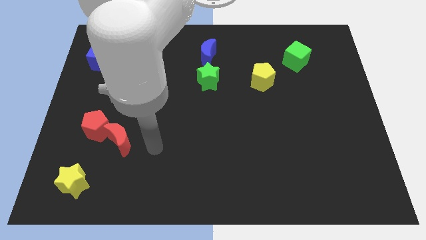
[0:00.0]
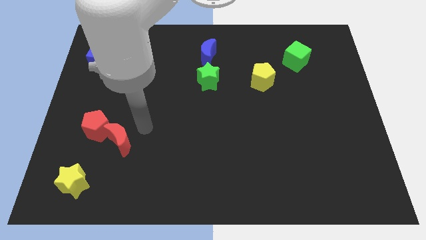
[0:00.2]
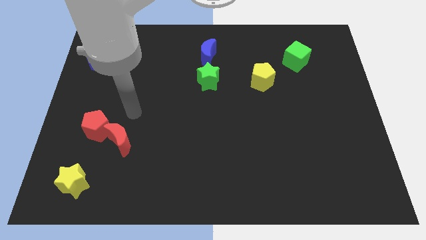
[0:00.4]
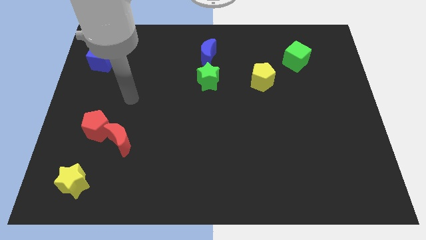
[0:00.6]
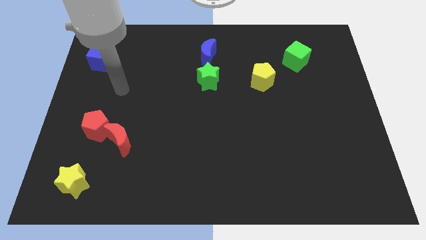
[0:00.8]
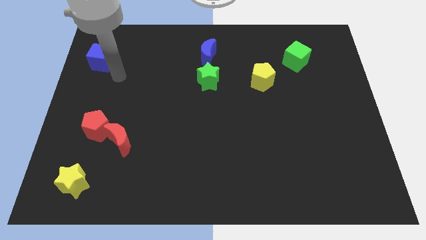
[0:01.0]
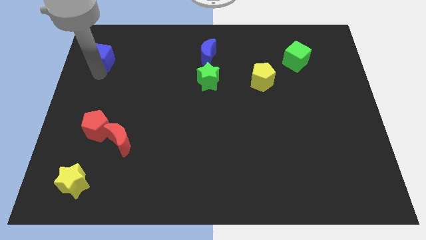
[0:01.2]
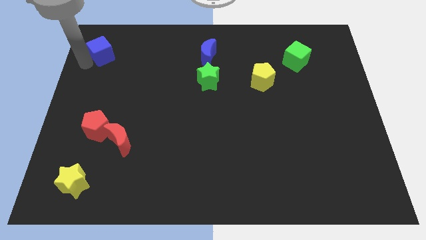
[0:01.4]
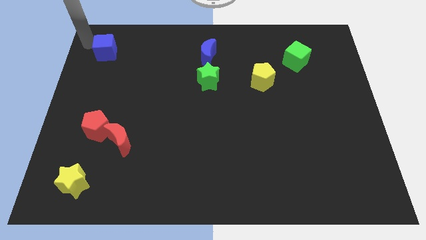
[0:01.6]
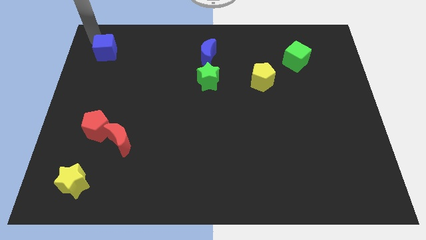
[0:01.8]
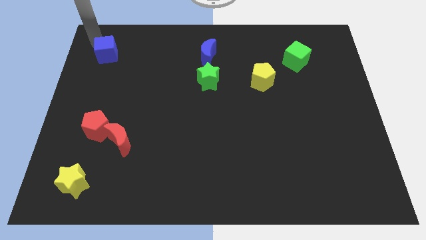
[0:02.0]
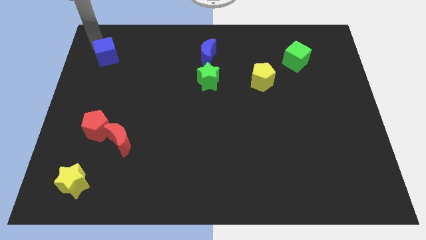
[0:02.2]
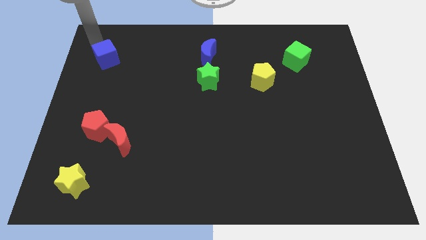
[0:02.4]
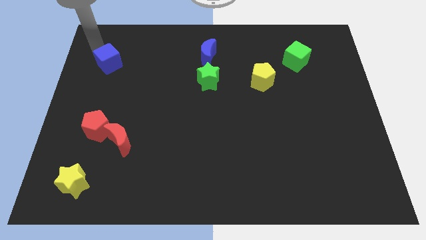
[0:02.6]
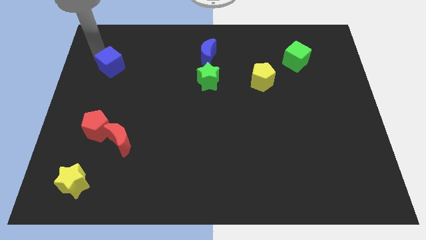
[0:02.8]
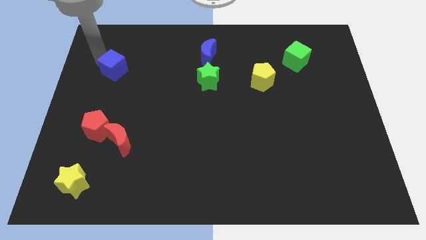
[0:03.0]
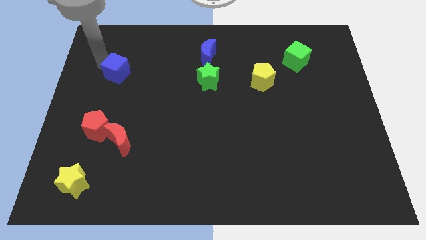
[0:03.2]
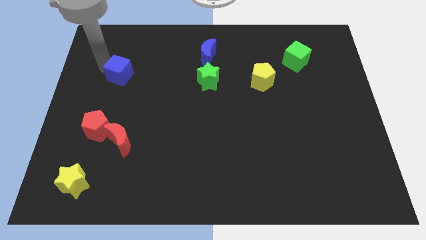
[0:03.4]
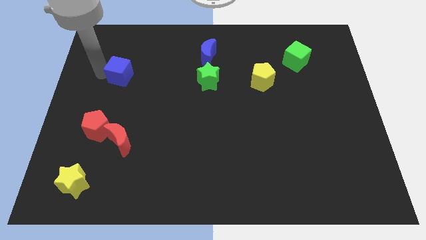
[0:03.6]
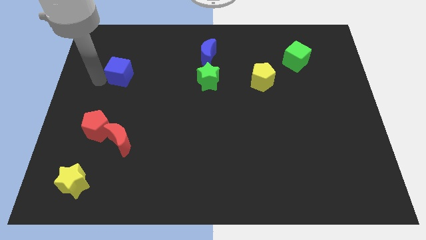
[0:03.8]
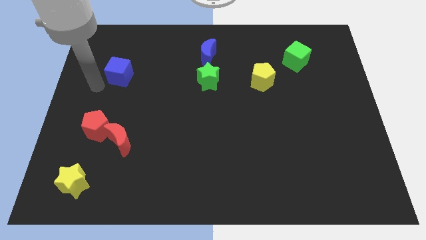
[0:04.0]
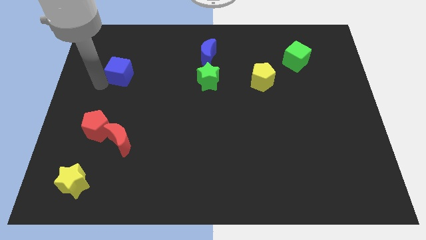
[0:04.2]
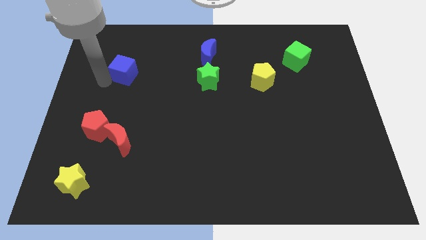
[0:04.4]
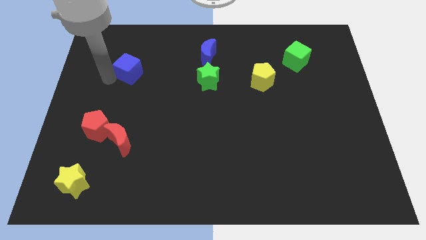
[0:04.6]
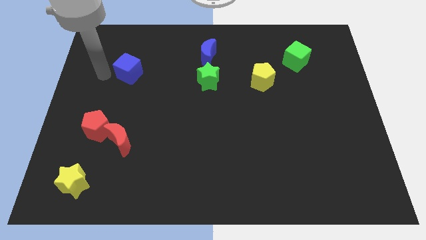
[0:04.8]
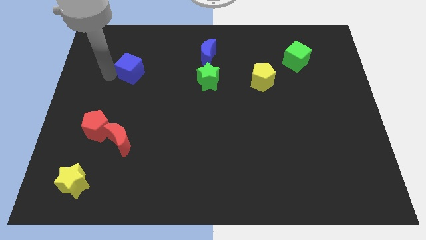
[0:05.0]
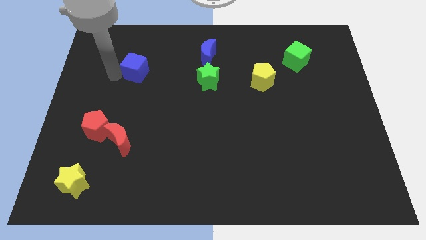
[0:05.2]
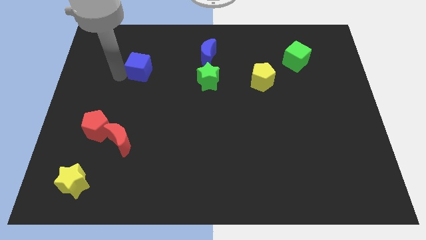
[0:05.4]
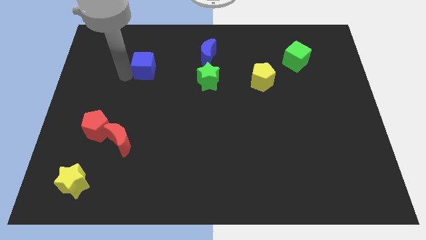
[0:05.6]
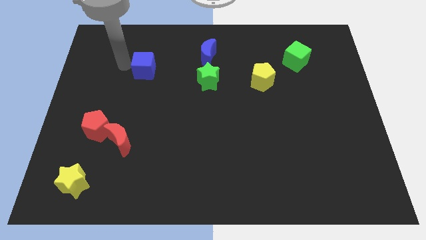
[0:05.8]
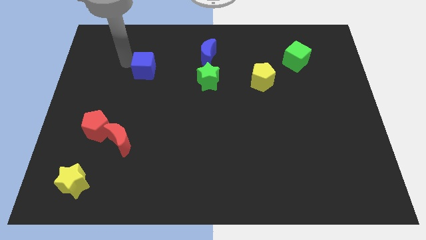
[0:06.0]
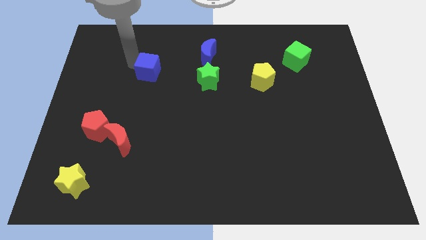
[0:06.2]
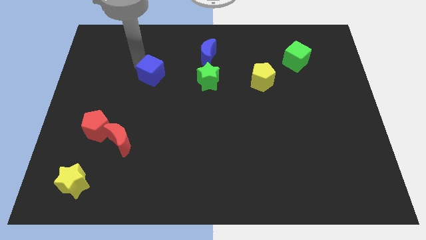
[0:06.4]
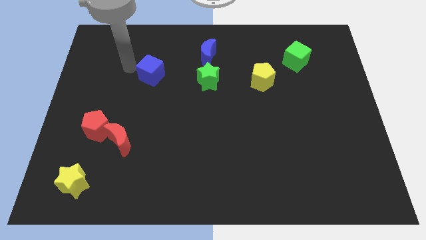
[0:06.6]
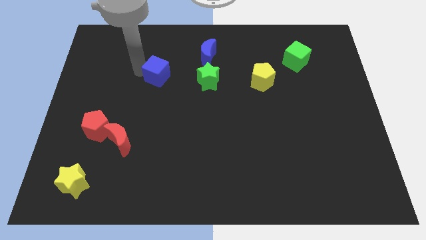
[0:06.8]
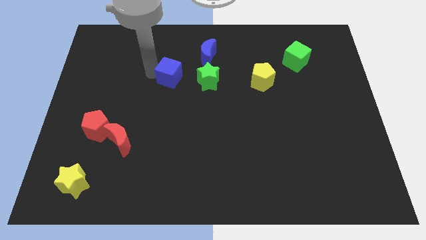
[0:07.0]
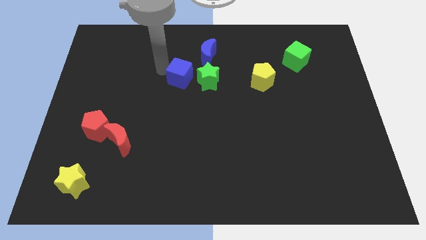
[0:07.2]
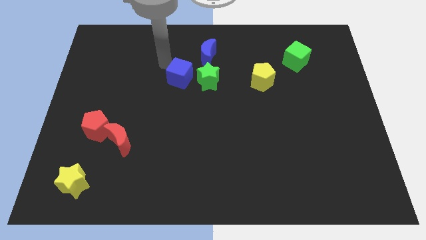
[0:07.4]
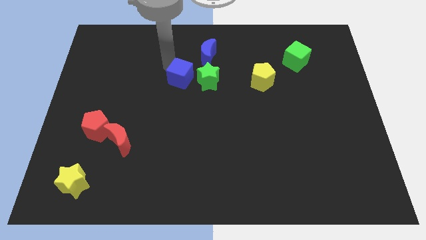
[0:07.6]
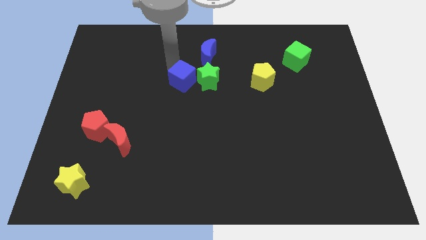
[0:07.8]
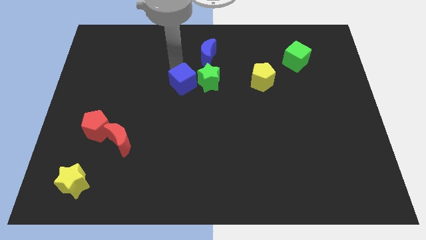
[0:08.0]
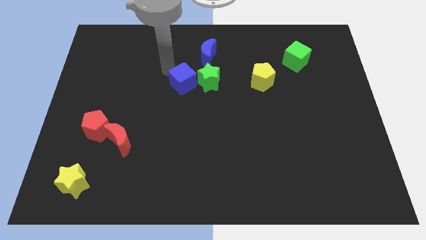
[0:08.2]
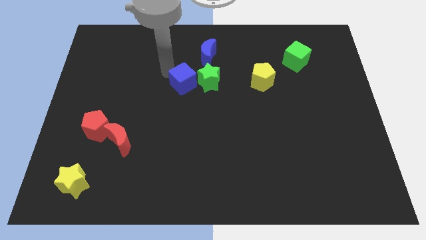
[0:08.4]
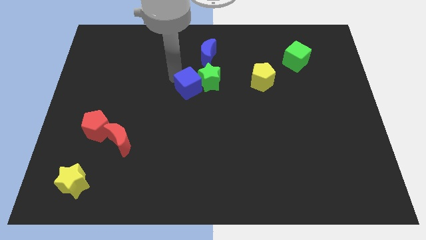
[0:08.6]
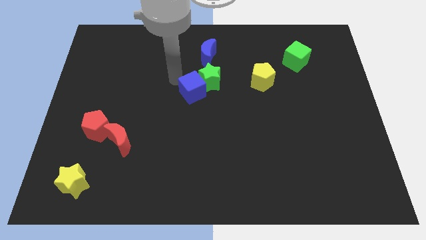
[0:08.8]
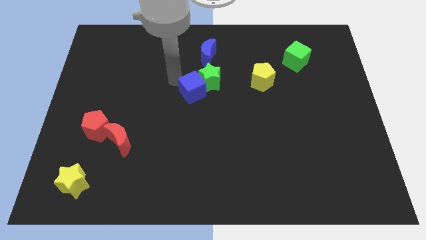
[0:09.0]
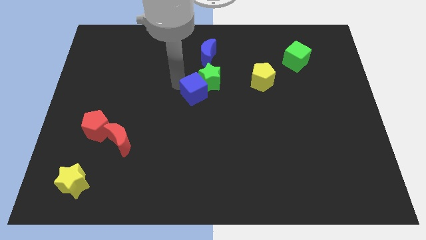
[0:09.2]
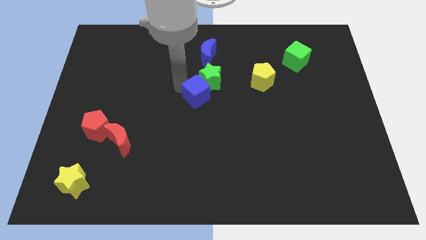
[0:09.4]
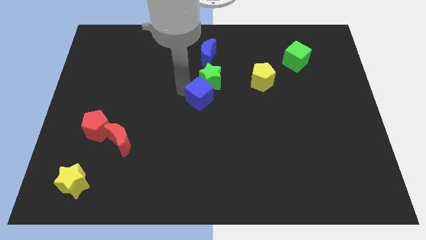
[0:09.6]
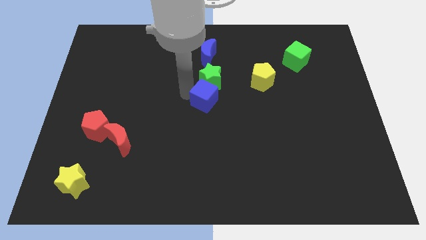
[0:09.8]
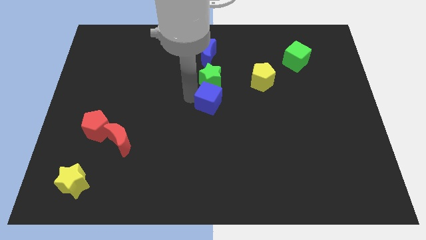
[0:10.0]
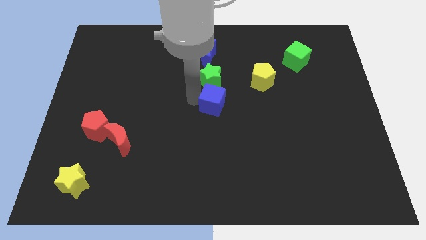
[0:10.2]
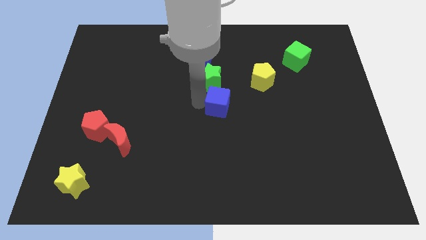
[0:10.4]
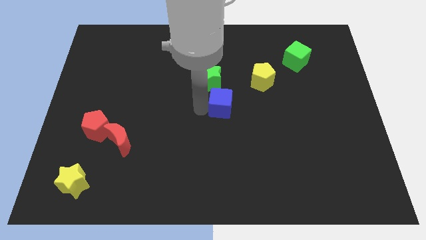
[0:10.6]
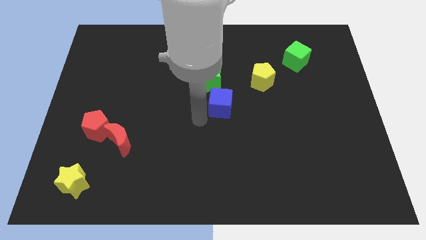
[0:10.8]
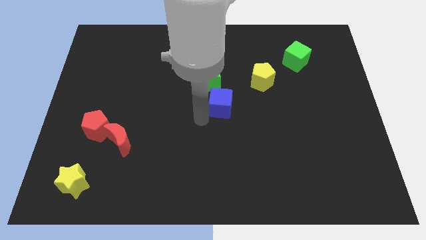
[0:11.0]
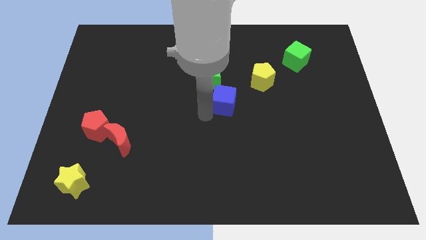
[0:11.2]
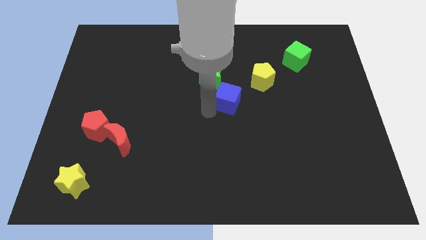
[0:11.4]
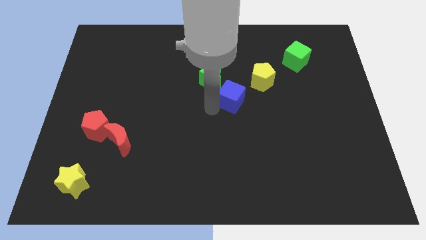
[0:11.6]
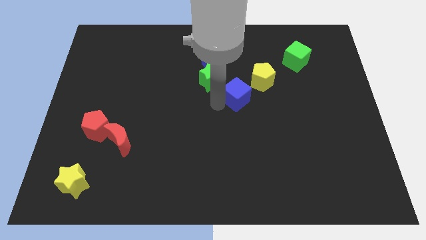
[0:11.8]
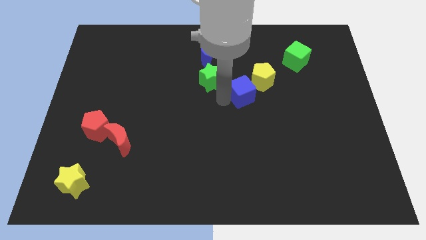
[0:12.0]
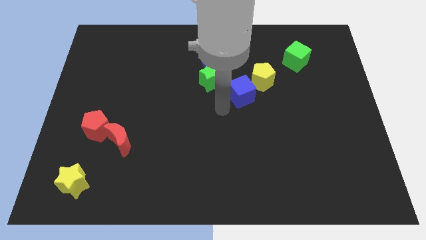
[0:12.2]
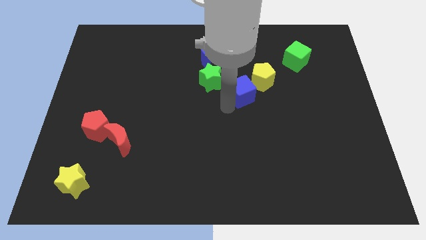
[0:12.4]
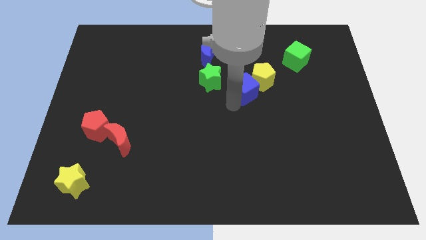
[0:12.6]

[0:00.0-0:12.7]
slide the blue cube close to the yellow pentagon

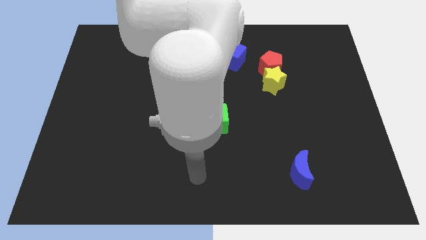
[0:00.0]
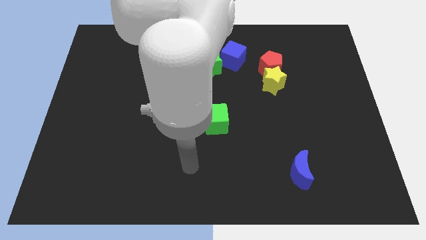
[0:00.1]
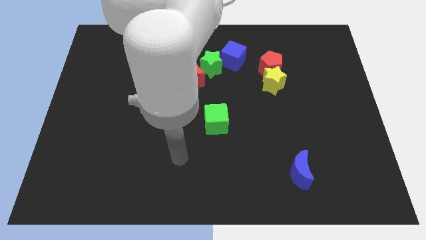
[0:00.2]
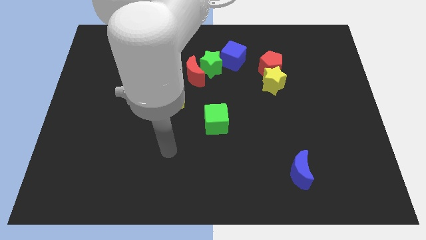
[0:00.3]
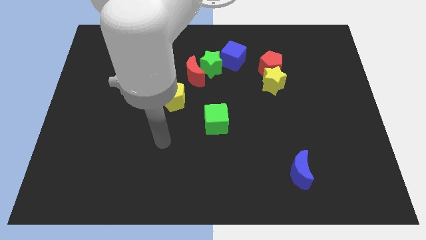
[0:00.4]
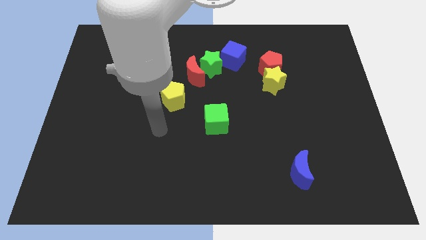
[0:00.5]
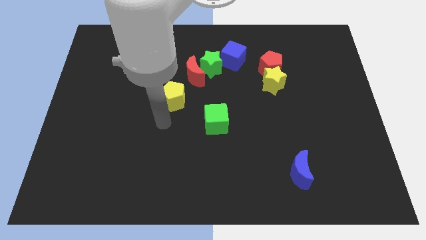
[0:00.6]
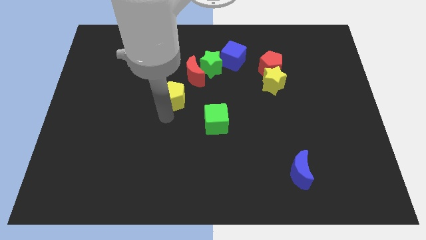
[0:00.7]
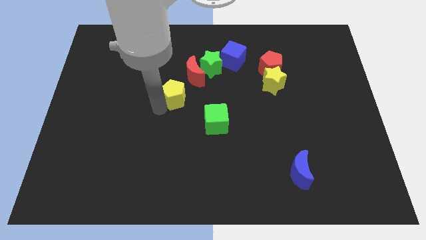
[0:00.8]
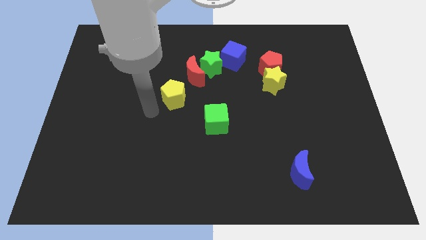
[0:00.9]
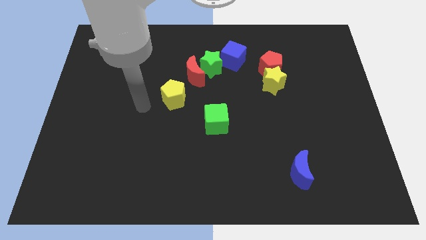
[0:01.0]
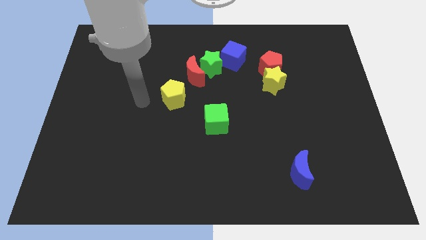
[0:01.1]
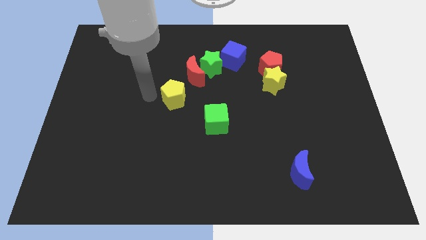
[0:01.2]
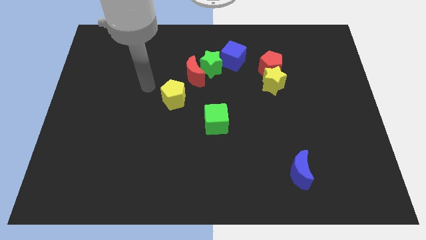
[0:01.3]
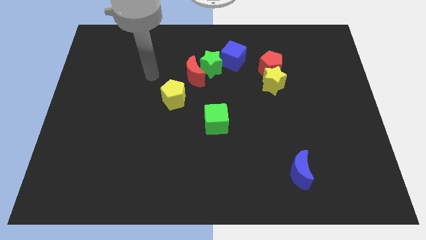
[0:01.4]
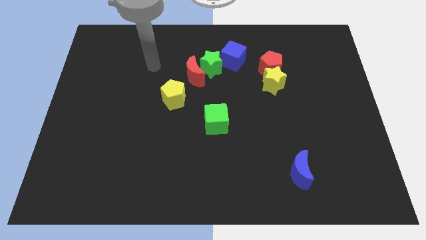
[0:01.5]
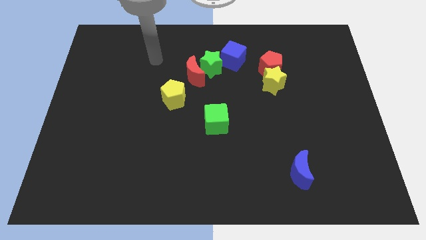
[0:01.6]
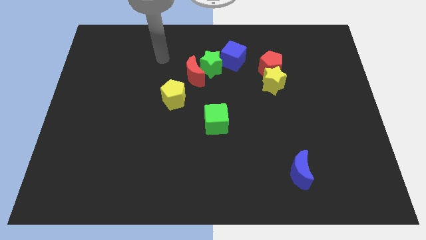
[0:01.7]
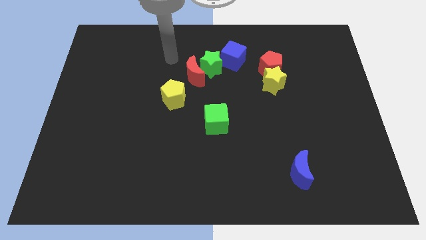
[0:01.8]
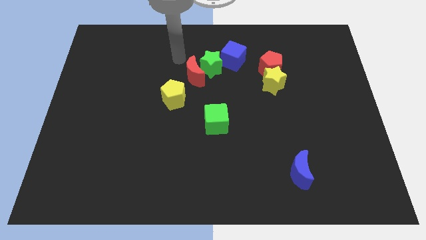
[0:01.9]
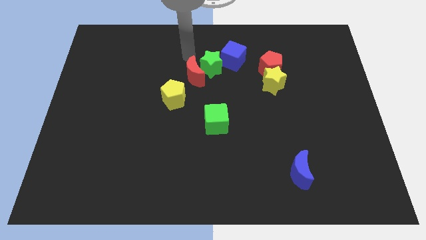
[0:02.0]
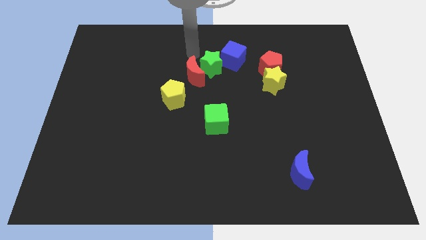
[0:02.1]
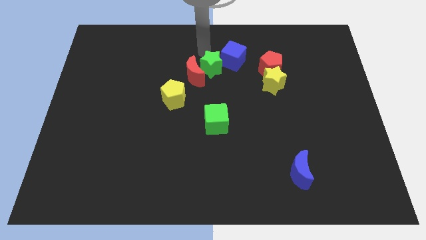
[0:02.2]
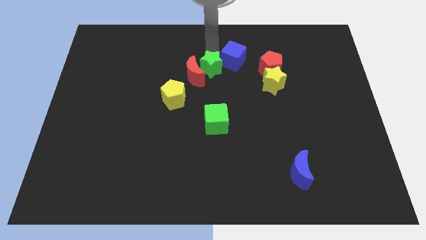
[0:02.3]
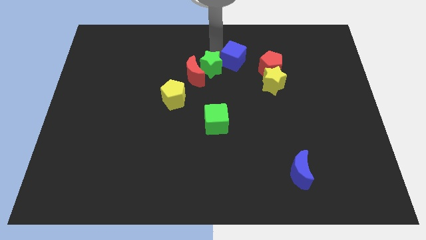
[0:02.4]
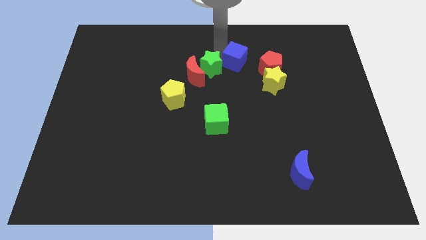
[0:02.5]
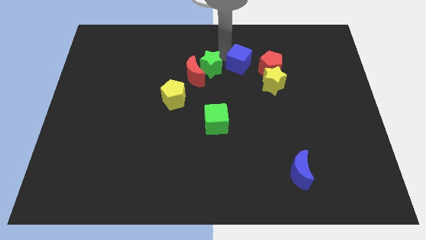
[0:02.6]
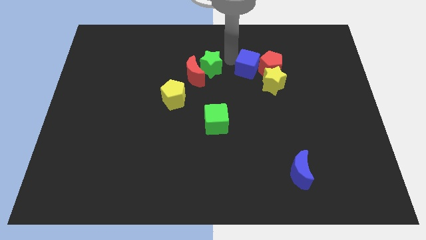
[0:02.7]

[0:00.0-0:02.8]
put the blue cube close to the red pentagon
